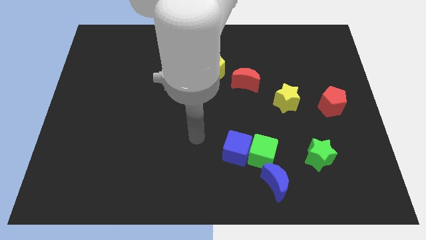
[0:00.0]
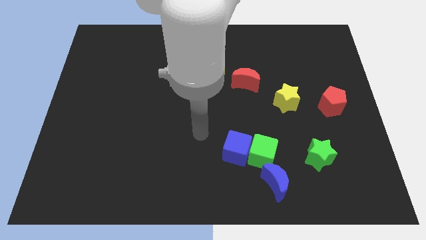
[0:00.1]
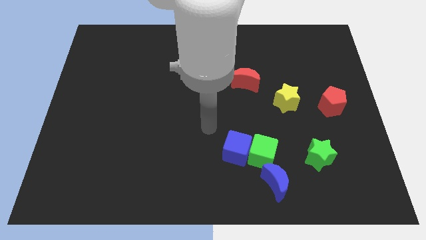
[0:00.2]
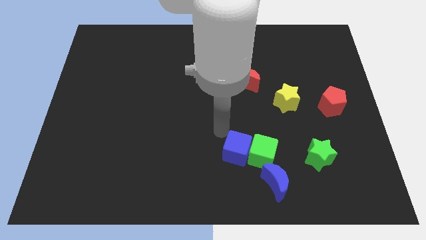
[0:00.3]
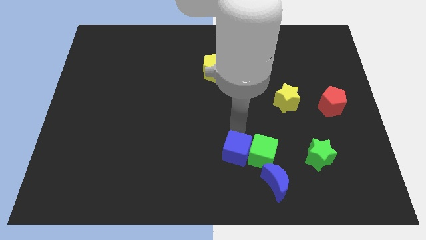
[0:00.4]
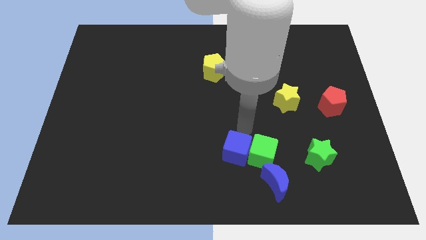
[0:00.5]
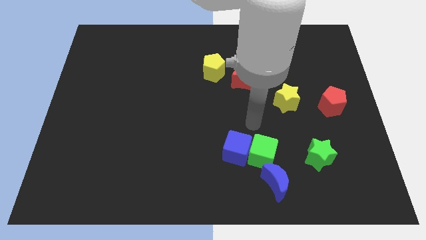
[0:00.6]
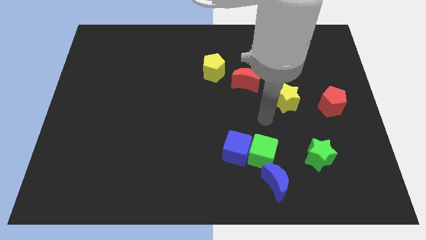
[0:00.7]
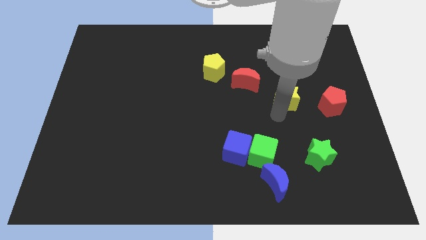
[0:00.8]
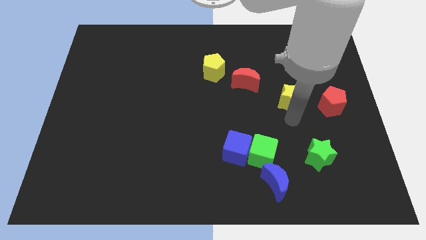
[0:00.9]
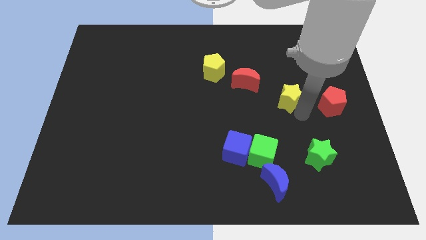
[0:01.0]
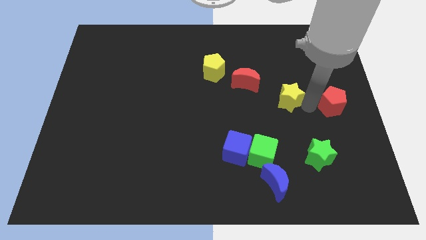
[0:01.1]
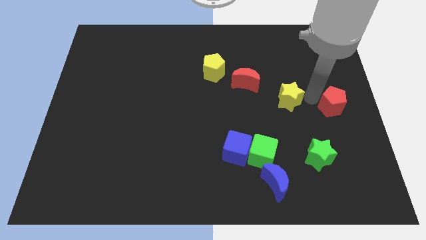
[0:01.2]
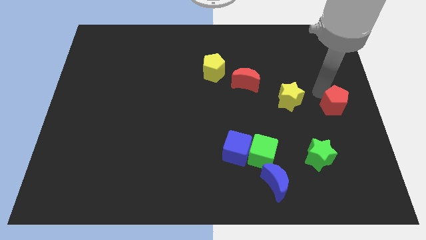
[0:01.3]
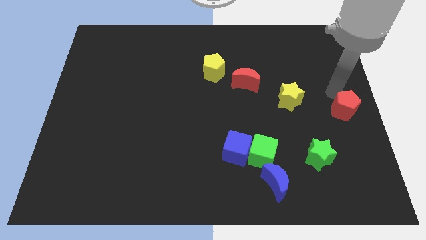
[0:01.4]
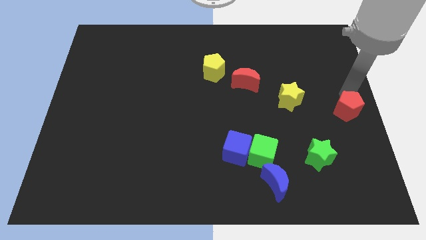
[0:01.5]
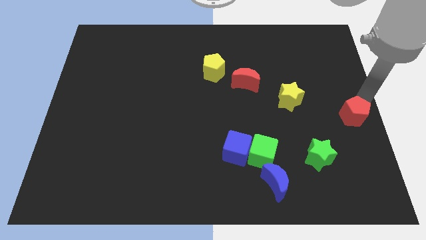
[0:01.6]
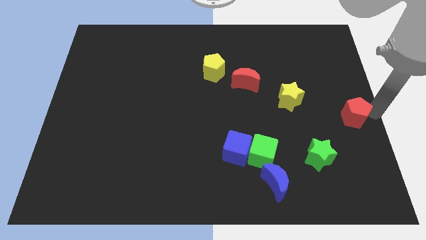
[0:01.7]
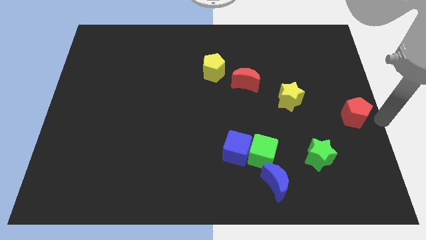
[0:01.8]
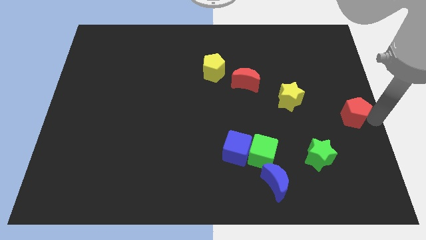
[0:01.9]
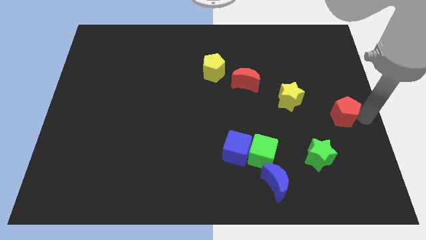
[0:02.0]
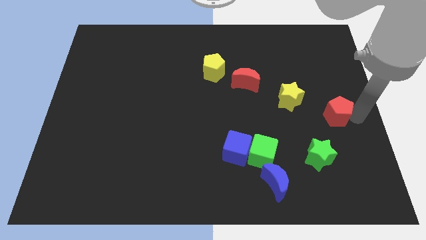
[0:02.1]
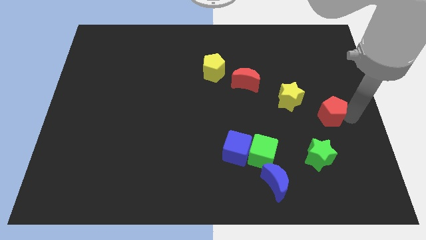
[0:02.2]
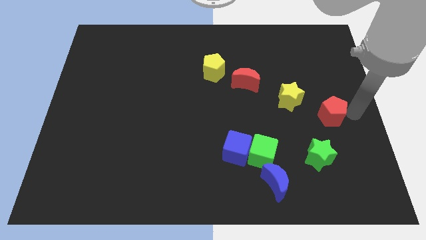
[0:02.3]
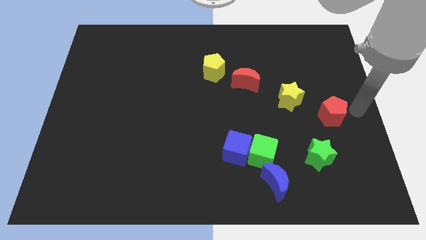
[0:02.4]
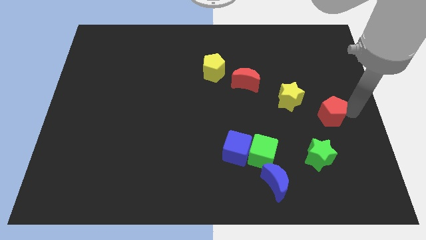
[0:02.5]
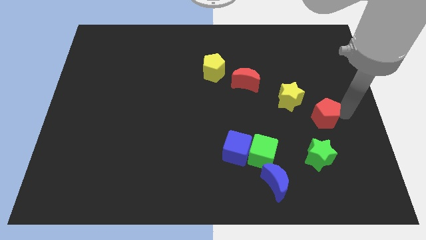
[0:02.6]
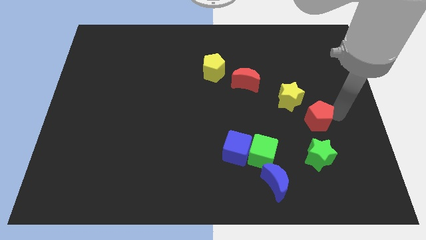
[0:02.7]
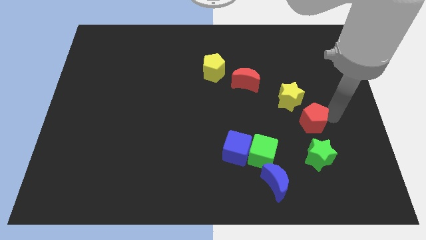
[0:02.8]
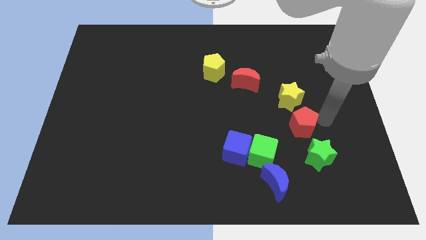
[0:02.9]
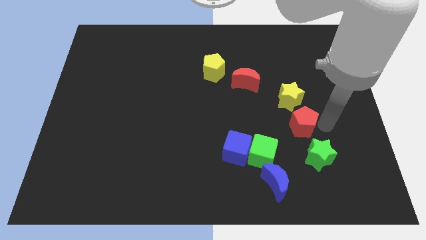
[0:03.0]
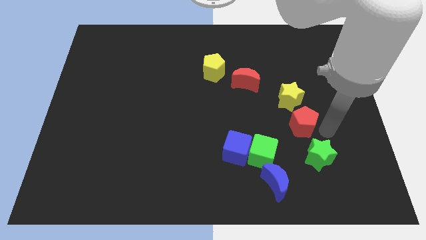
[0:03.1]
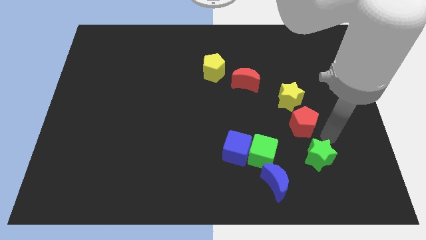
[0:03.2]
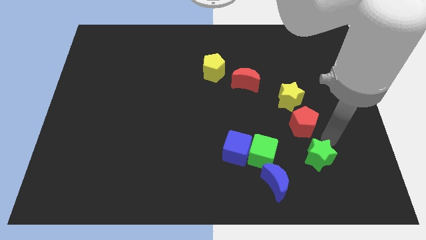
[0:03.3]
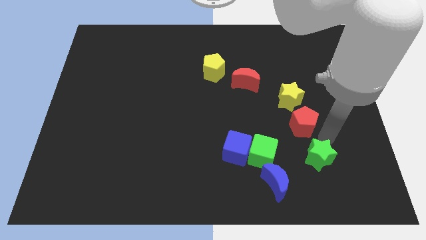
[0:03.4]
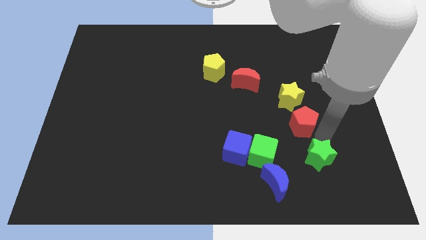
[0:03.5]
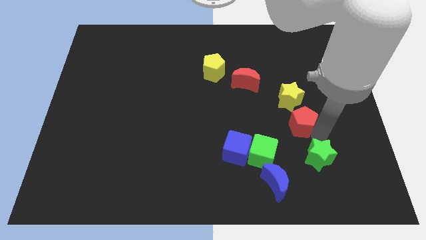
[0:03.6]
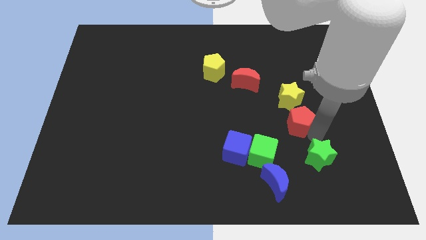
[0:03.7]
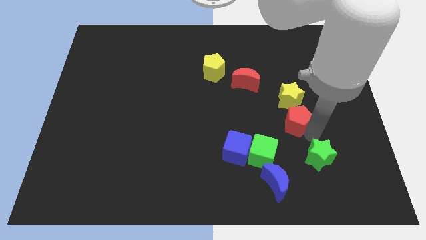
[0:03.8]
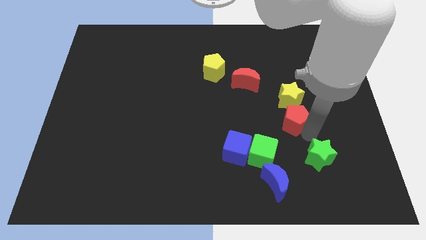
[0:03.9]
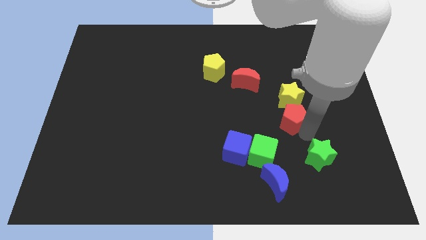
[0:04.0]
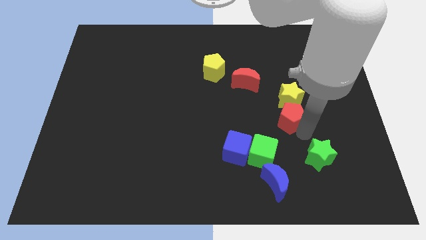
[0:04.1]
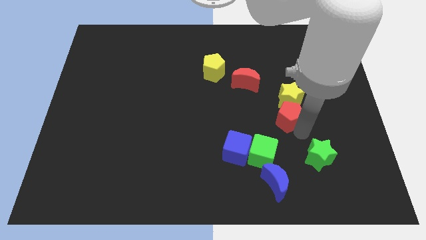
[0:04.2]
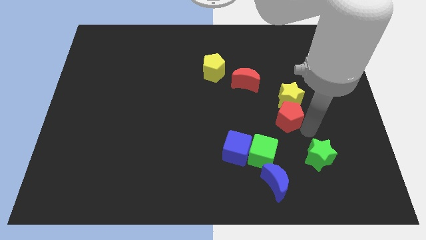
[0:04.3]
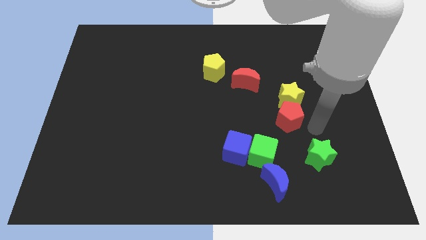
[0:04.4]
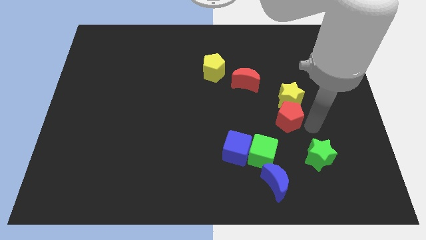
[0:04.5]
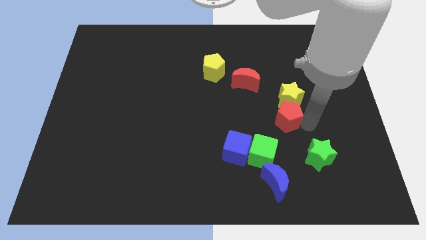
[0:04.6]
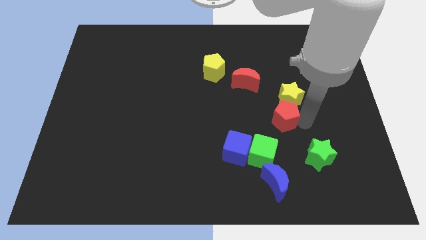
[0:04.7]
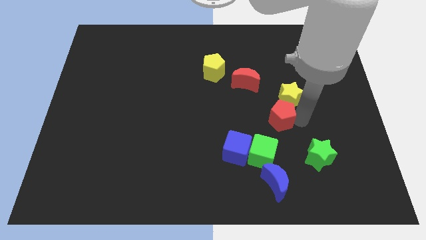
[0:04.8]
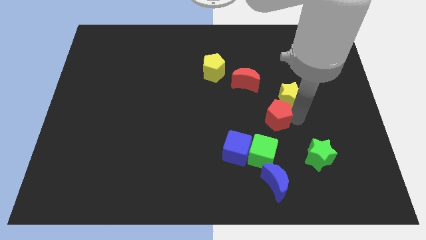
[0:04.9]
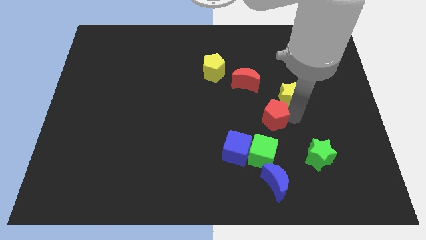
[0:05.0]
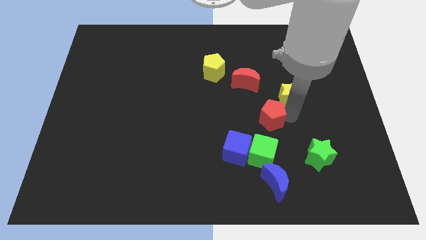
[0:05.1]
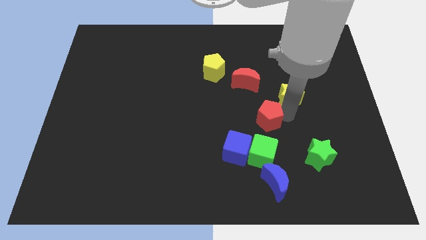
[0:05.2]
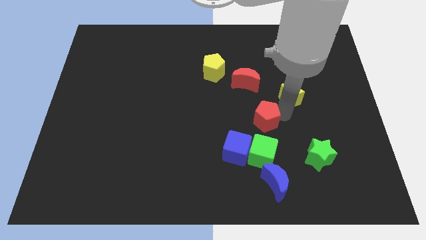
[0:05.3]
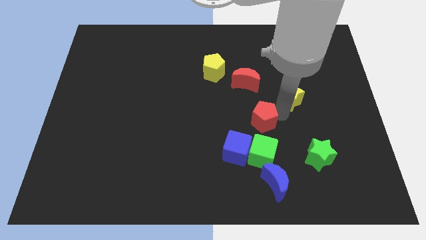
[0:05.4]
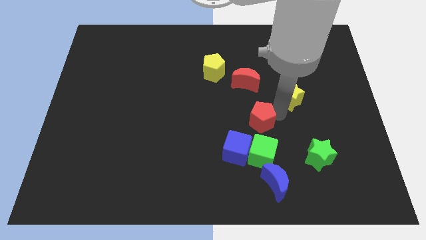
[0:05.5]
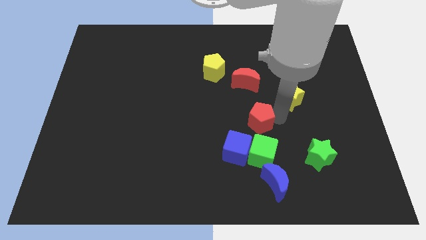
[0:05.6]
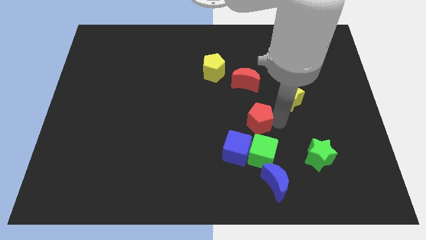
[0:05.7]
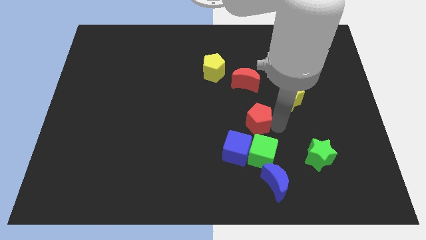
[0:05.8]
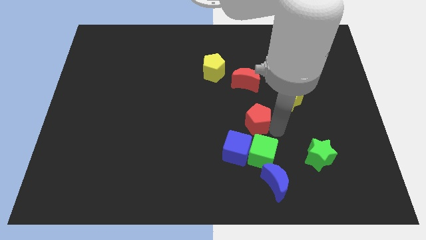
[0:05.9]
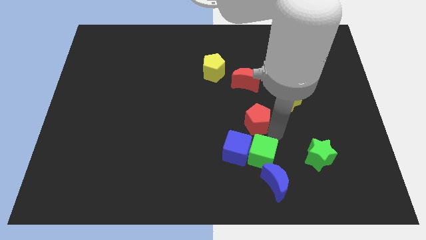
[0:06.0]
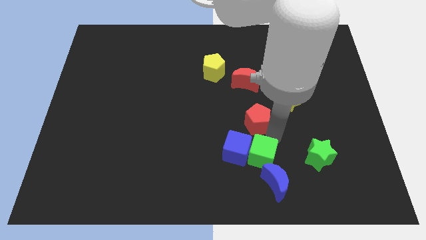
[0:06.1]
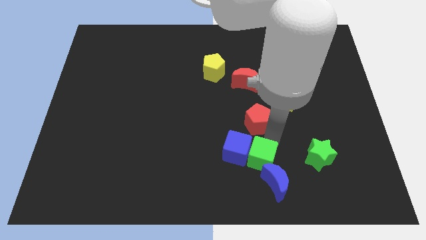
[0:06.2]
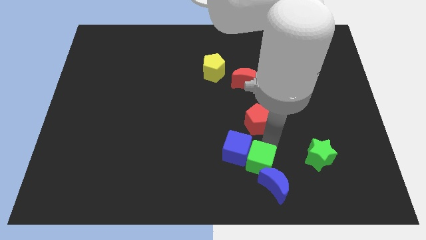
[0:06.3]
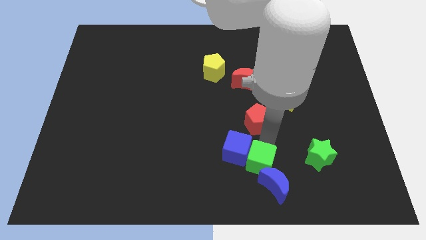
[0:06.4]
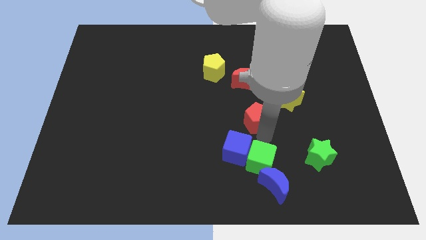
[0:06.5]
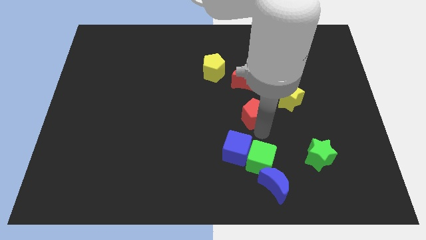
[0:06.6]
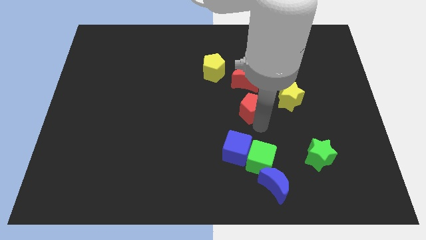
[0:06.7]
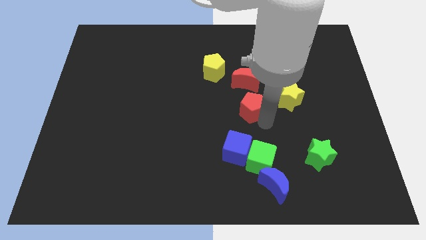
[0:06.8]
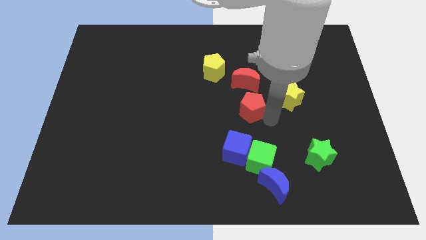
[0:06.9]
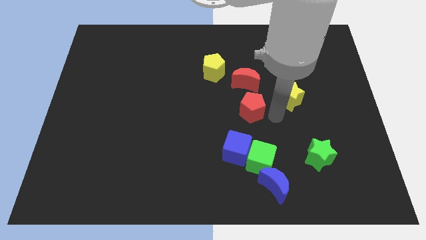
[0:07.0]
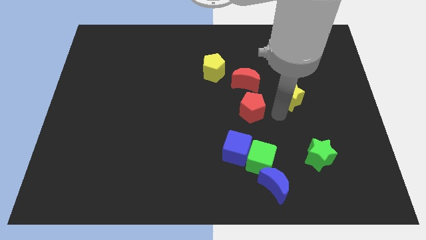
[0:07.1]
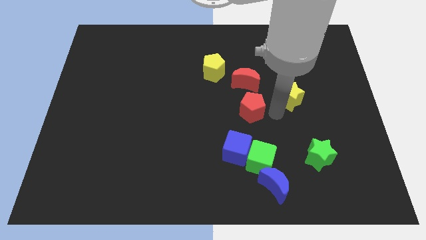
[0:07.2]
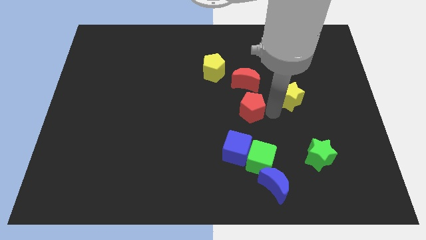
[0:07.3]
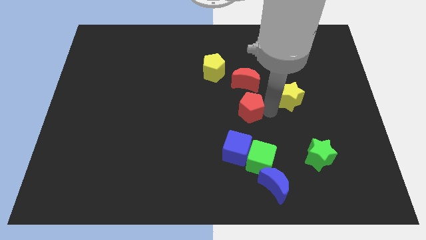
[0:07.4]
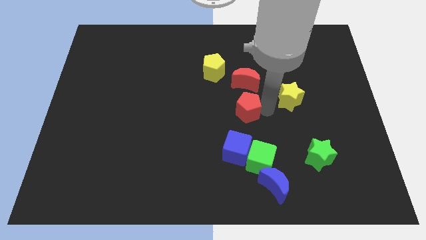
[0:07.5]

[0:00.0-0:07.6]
slide the red pentagon left

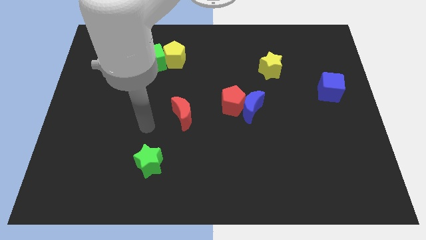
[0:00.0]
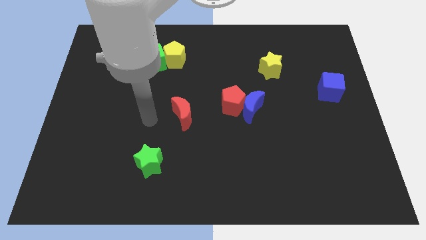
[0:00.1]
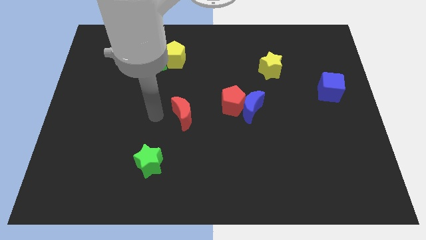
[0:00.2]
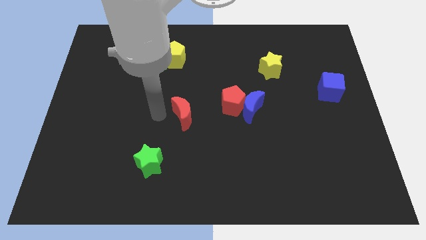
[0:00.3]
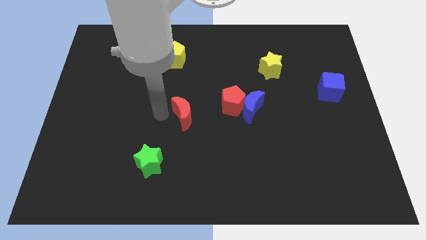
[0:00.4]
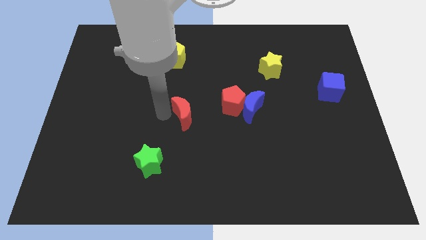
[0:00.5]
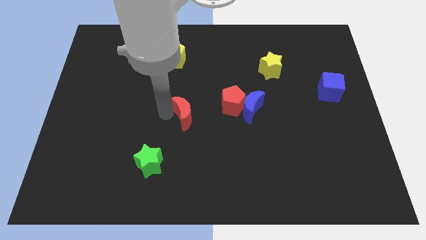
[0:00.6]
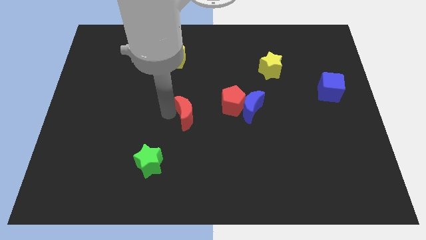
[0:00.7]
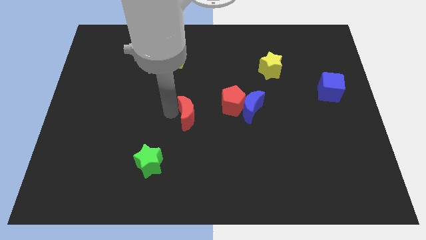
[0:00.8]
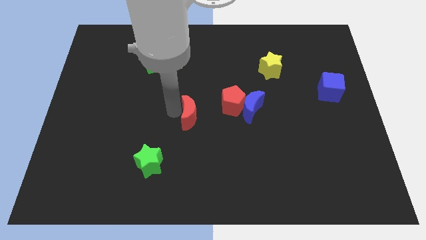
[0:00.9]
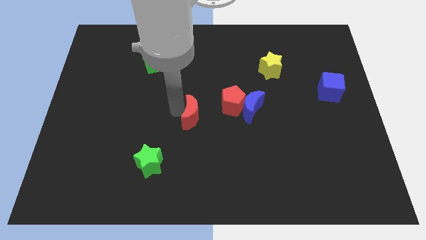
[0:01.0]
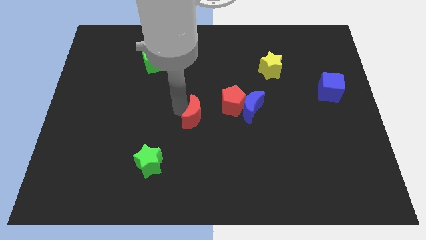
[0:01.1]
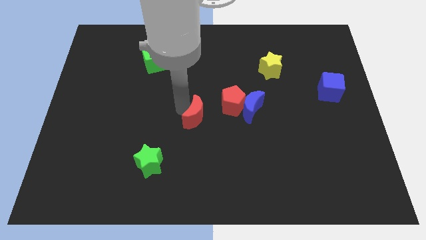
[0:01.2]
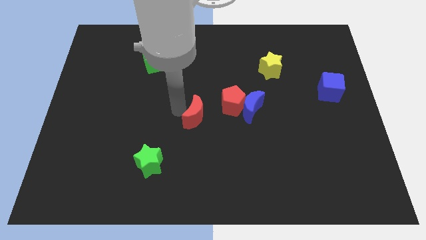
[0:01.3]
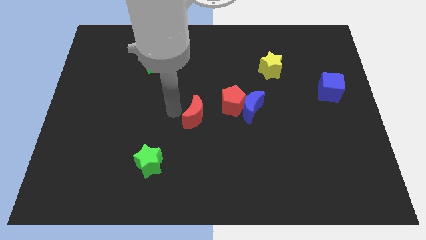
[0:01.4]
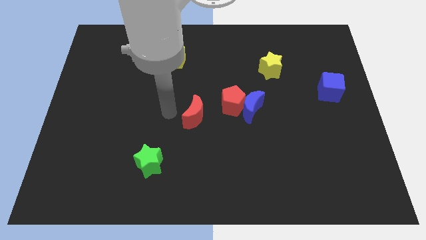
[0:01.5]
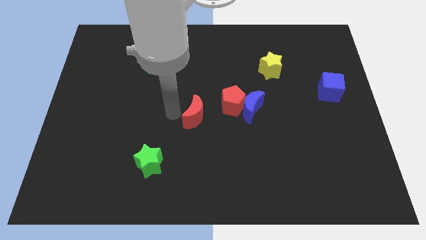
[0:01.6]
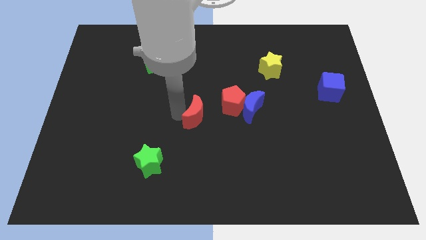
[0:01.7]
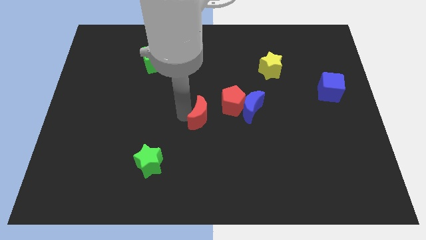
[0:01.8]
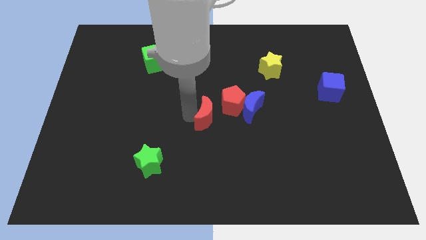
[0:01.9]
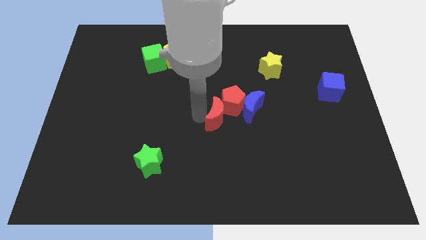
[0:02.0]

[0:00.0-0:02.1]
push the red moon right a little
